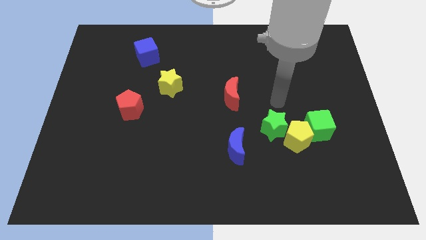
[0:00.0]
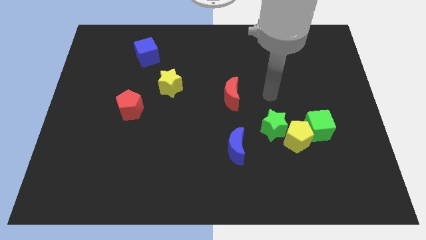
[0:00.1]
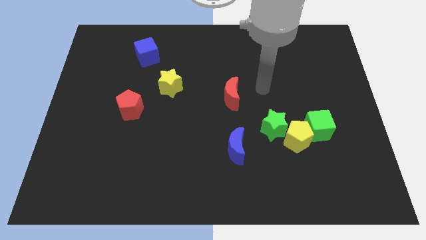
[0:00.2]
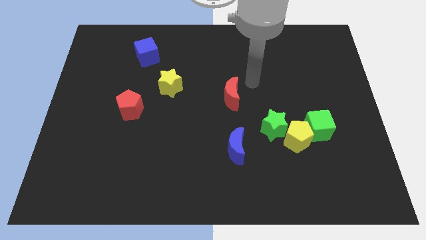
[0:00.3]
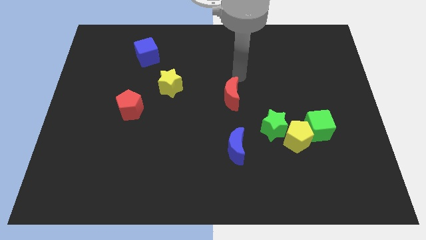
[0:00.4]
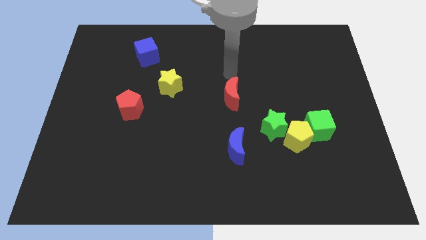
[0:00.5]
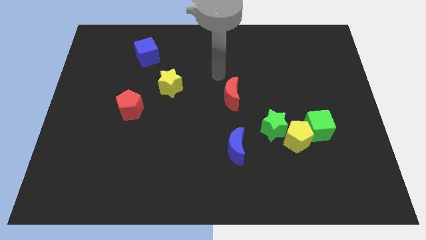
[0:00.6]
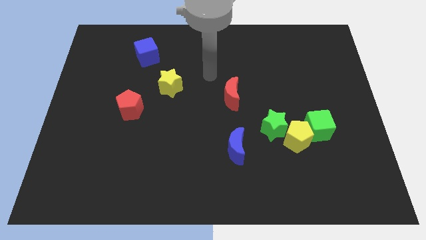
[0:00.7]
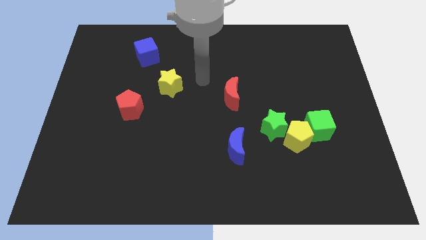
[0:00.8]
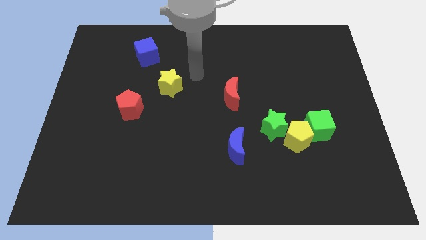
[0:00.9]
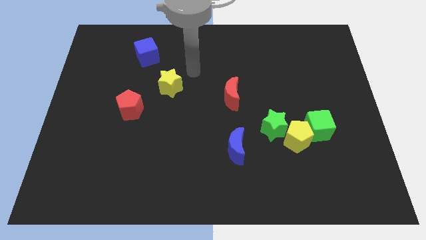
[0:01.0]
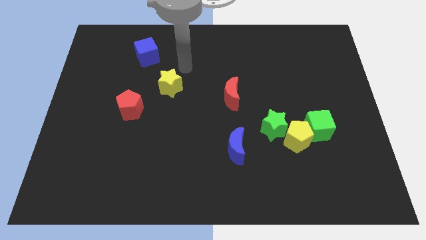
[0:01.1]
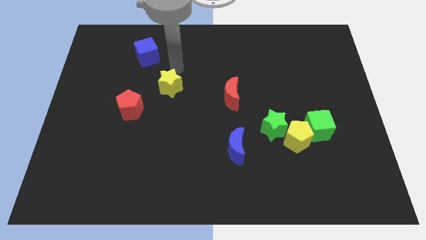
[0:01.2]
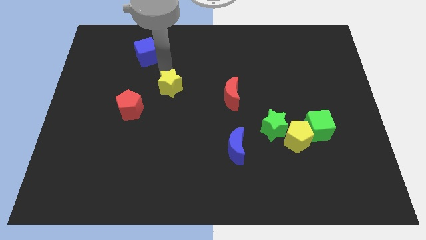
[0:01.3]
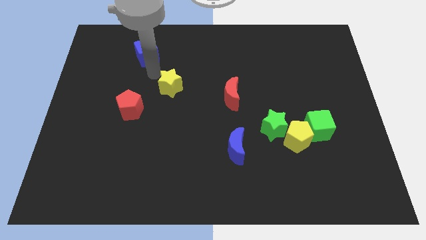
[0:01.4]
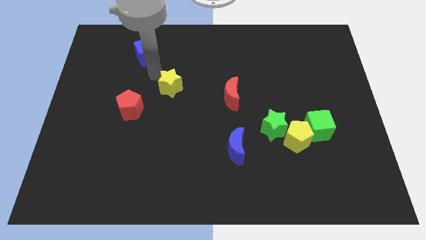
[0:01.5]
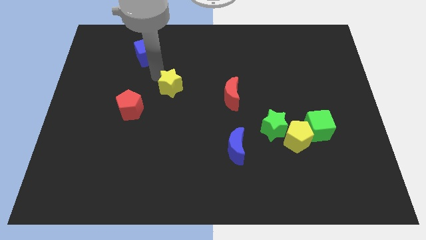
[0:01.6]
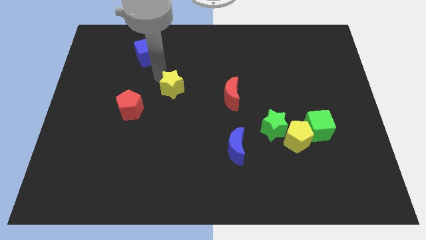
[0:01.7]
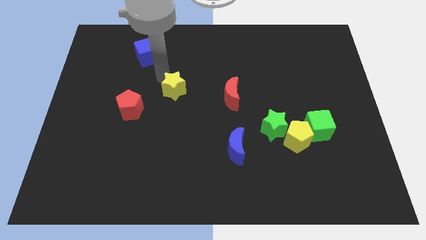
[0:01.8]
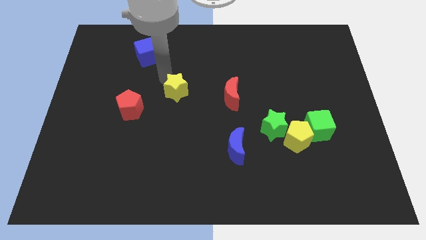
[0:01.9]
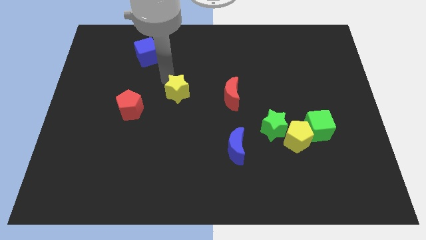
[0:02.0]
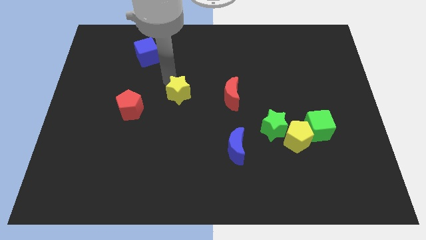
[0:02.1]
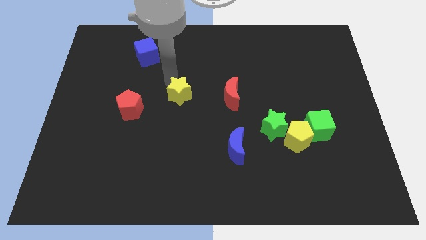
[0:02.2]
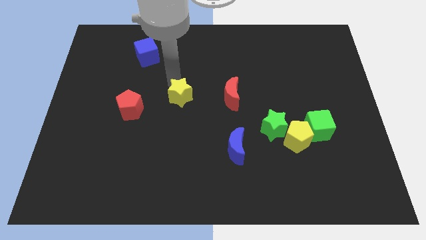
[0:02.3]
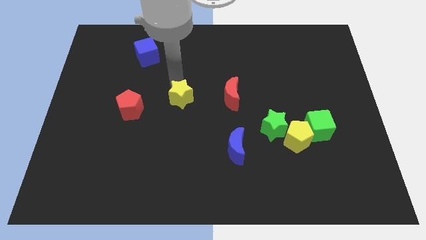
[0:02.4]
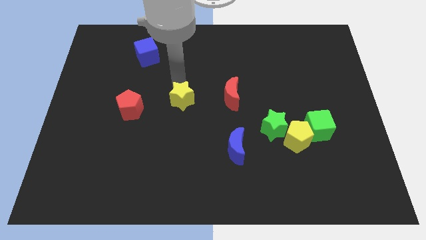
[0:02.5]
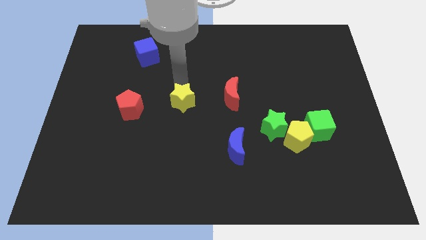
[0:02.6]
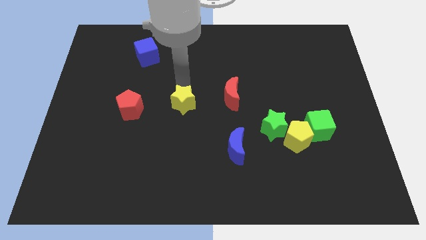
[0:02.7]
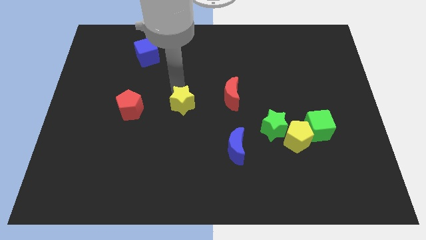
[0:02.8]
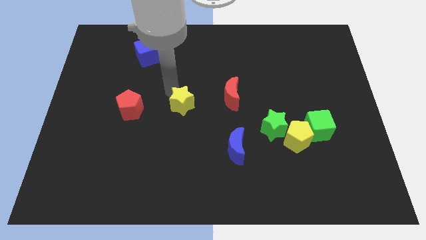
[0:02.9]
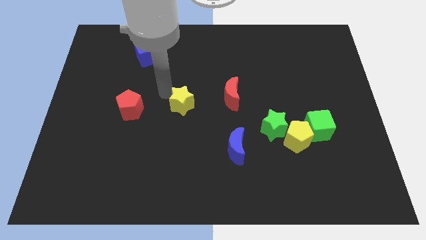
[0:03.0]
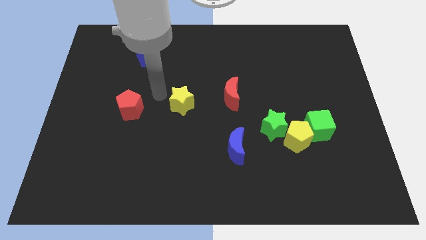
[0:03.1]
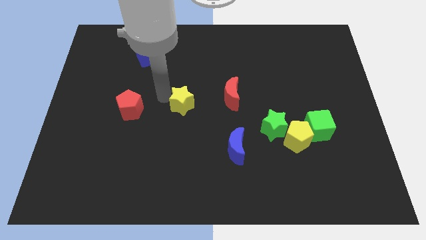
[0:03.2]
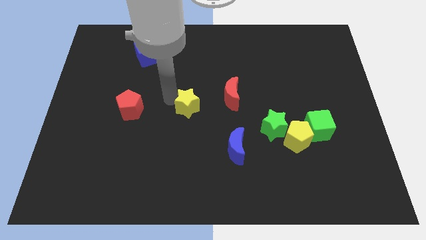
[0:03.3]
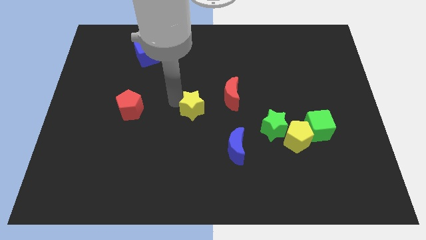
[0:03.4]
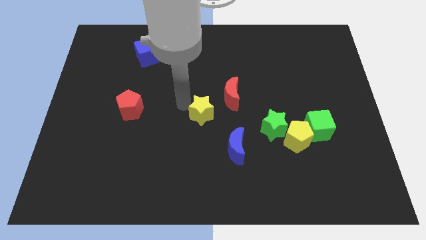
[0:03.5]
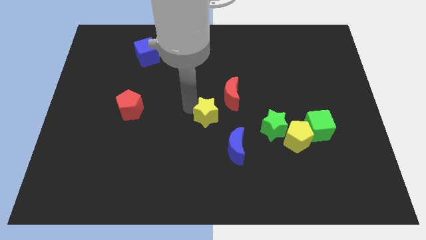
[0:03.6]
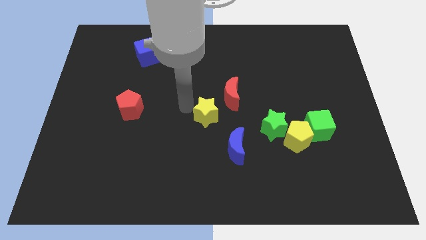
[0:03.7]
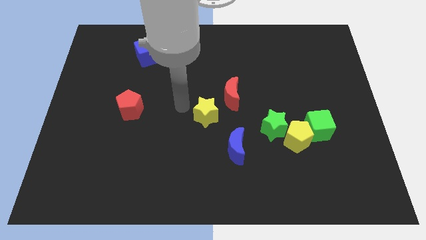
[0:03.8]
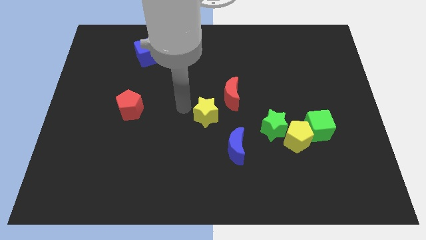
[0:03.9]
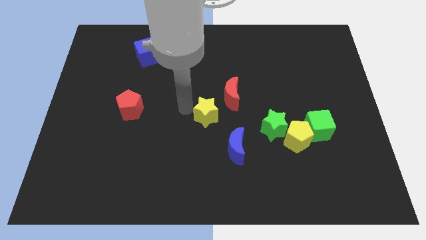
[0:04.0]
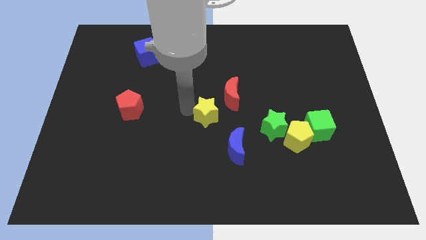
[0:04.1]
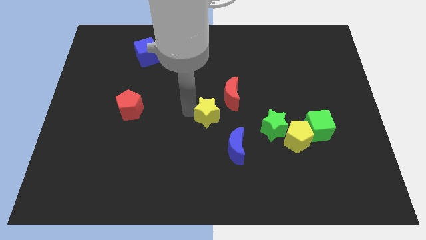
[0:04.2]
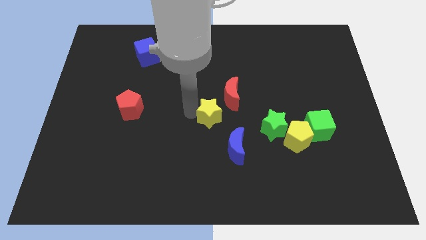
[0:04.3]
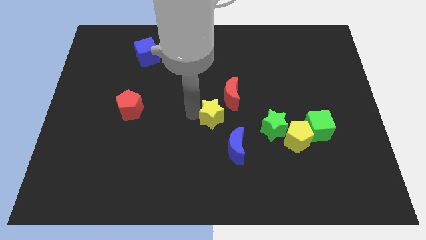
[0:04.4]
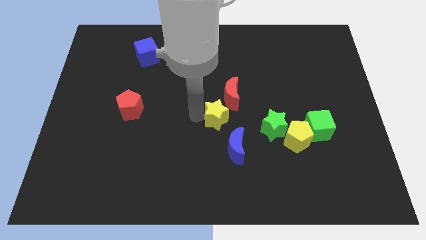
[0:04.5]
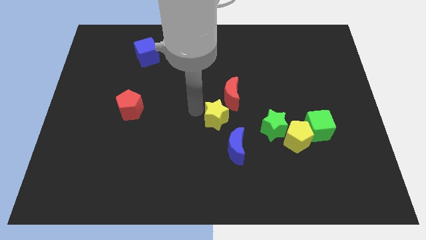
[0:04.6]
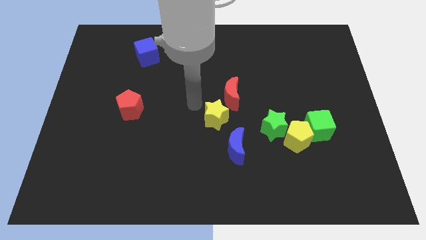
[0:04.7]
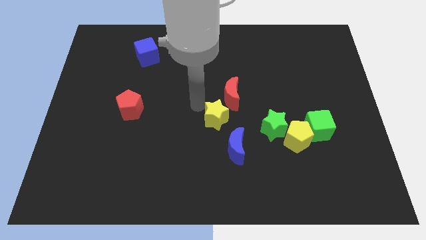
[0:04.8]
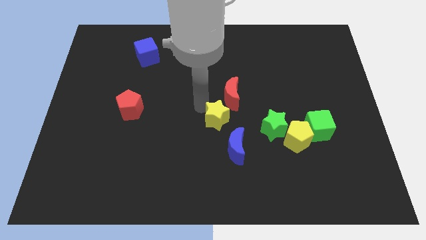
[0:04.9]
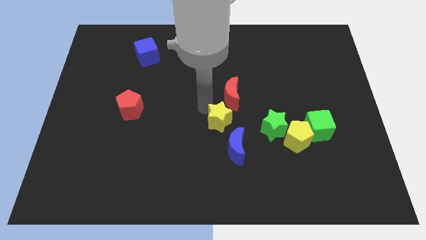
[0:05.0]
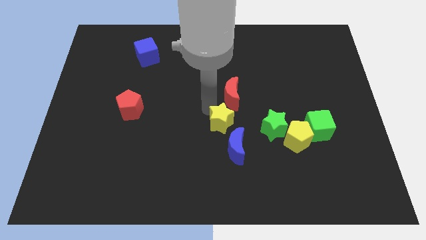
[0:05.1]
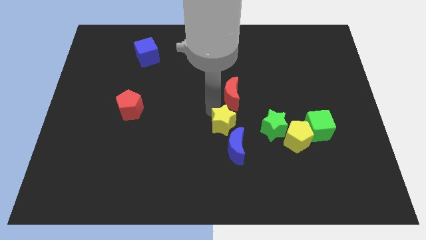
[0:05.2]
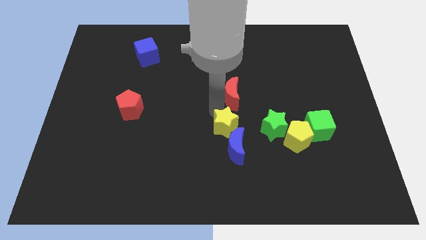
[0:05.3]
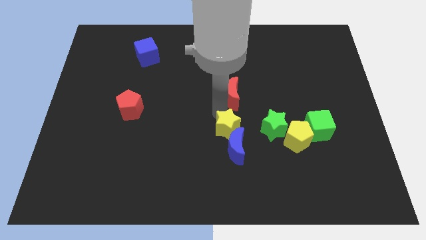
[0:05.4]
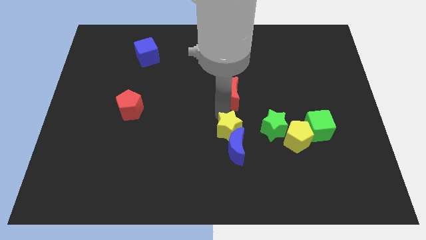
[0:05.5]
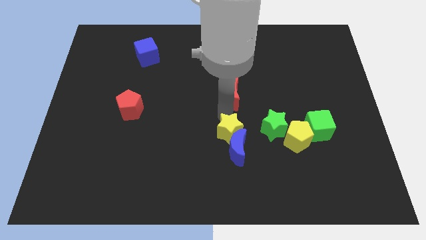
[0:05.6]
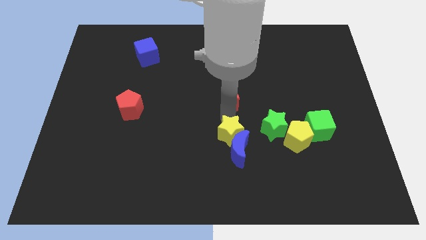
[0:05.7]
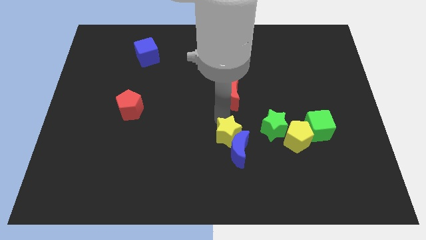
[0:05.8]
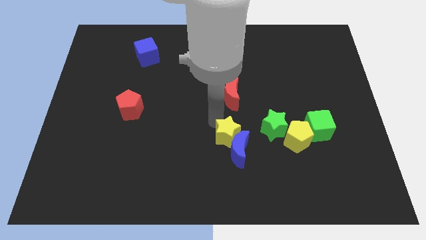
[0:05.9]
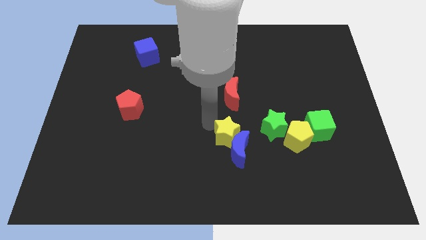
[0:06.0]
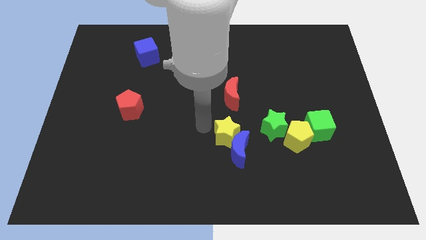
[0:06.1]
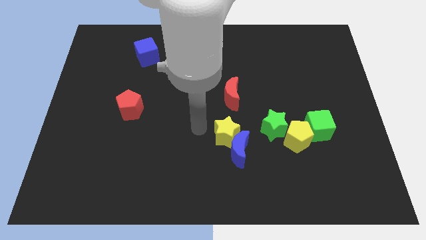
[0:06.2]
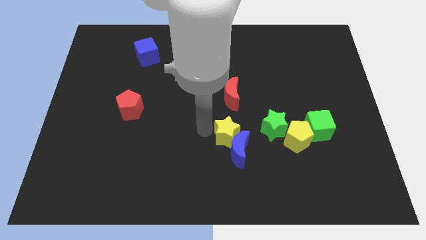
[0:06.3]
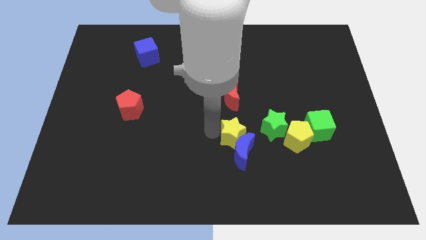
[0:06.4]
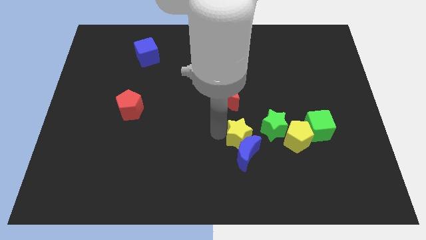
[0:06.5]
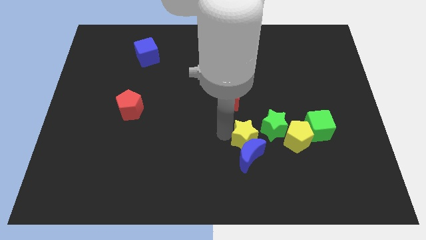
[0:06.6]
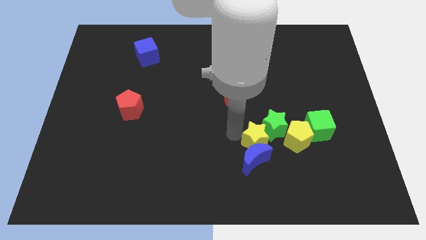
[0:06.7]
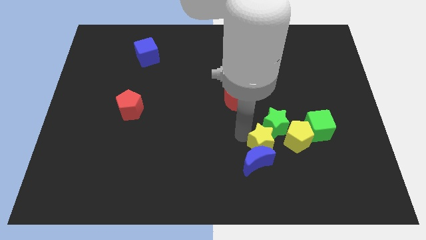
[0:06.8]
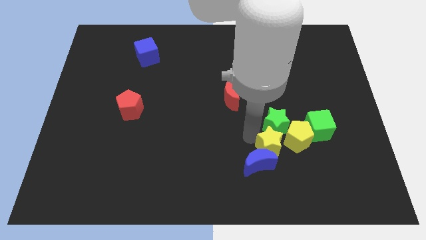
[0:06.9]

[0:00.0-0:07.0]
push the yellow star diagonally down and to the left of the yellow pentagon

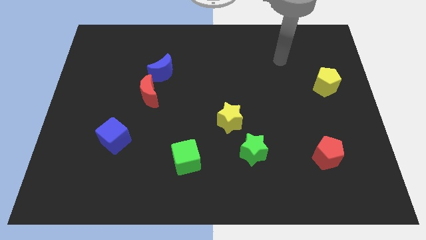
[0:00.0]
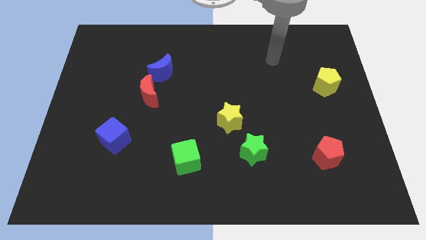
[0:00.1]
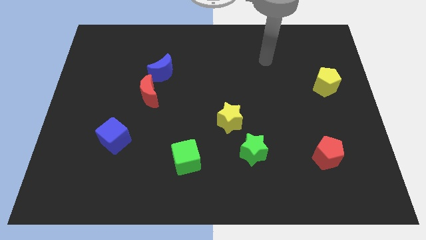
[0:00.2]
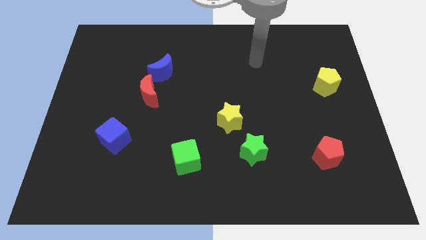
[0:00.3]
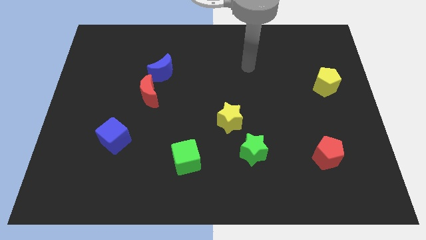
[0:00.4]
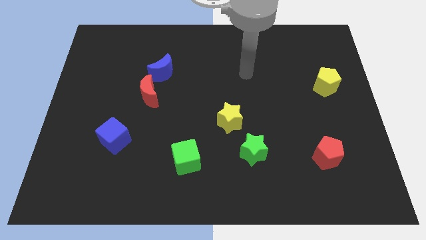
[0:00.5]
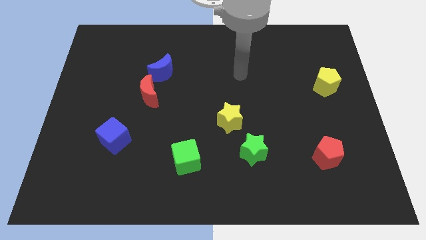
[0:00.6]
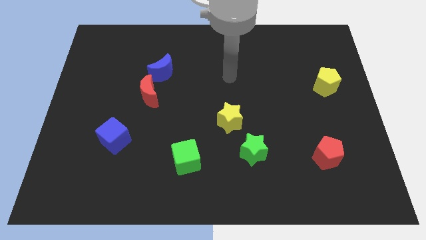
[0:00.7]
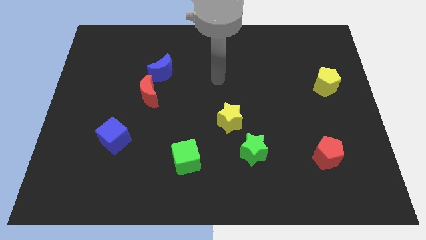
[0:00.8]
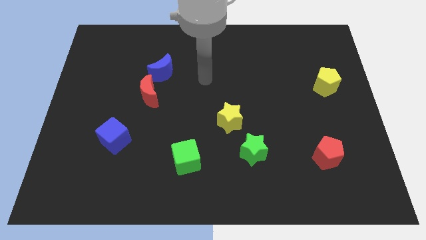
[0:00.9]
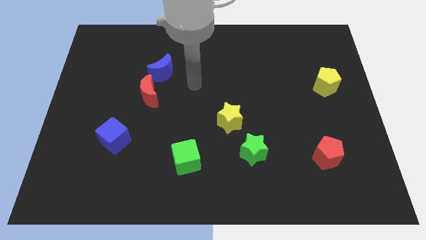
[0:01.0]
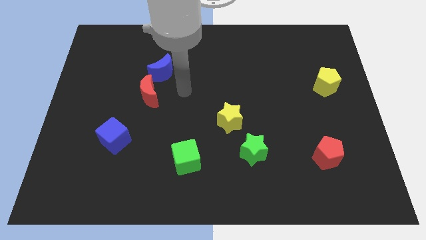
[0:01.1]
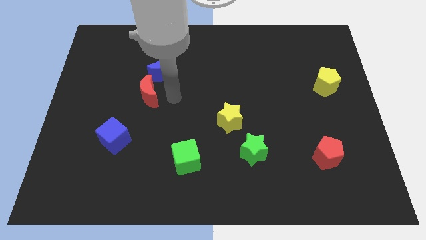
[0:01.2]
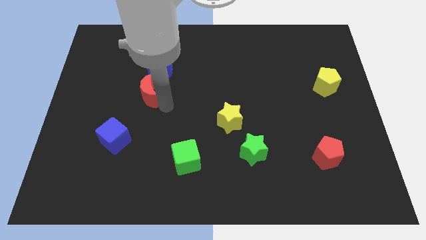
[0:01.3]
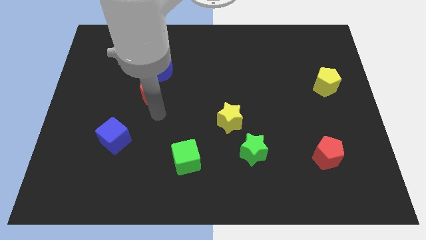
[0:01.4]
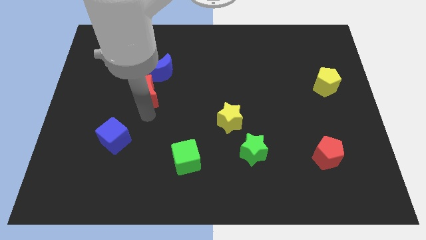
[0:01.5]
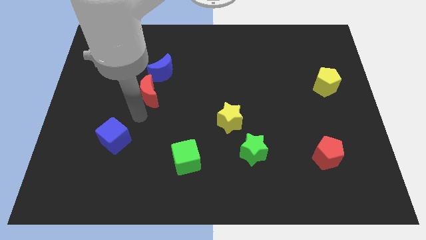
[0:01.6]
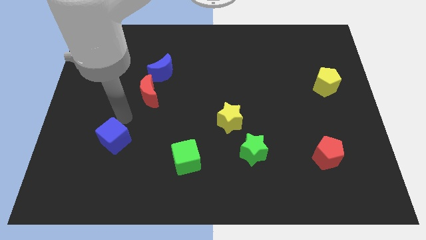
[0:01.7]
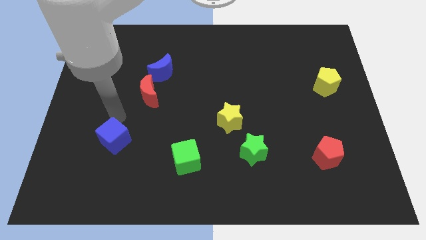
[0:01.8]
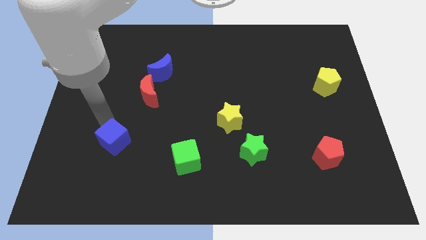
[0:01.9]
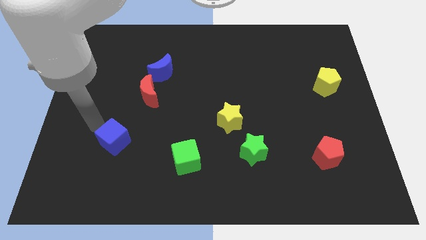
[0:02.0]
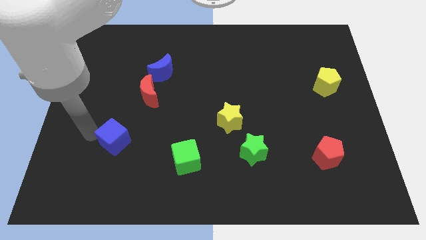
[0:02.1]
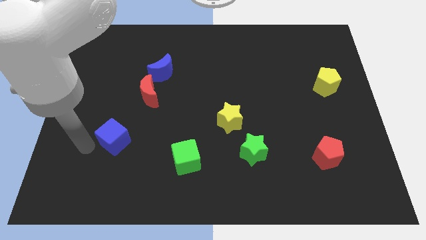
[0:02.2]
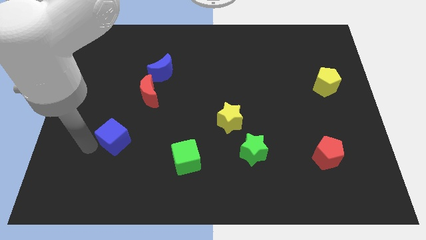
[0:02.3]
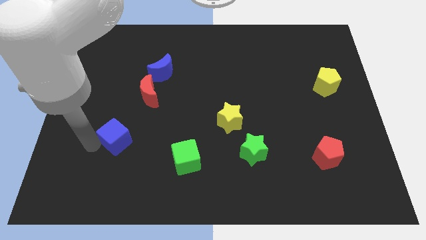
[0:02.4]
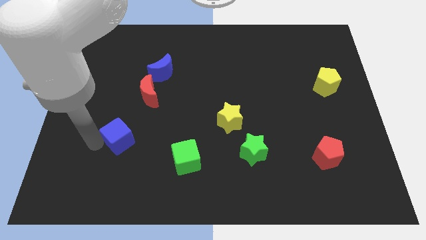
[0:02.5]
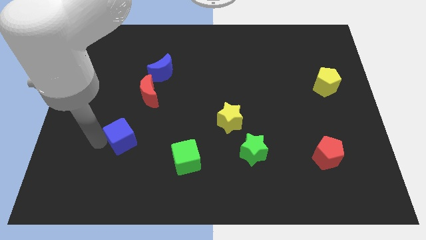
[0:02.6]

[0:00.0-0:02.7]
put the blue cube below the red moon
